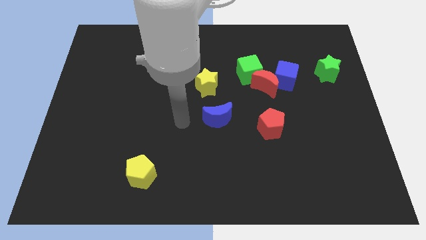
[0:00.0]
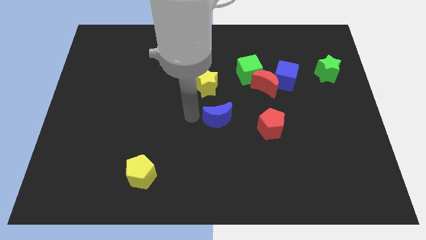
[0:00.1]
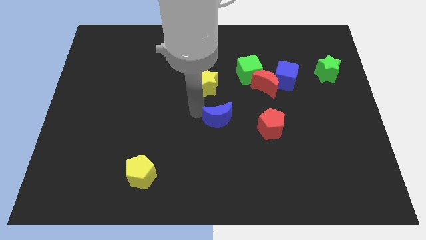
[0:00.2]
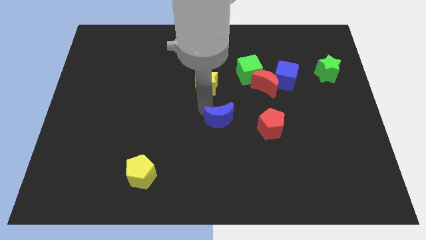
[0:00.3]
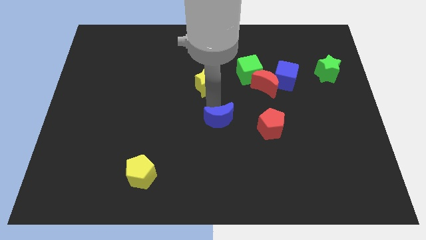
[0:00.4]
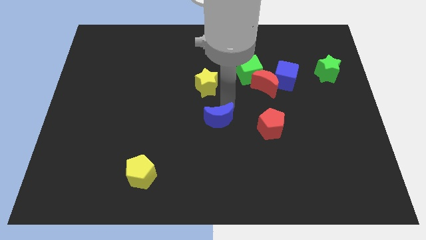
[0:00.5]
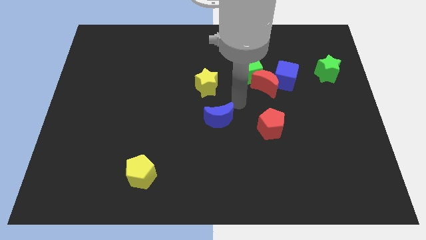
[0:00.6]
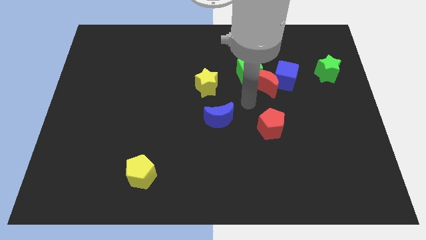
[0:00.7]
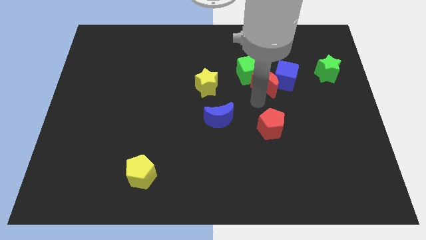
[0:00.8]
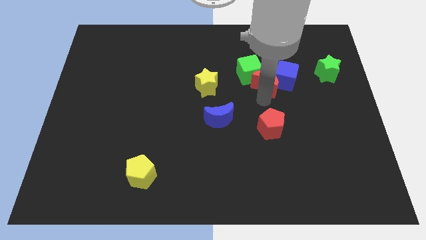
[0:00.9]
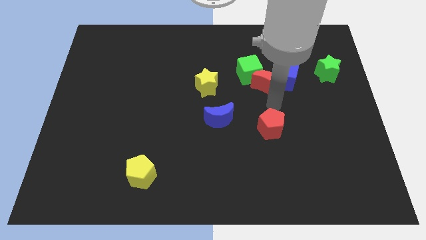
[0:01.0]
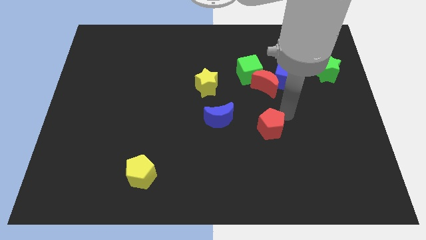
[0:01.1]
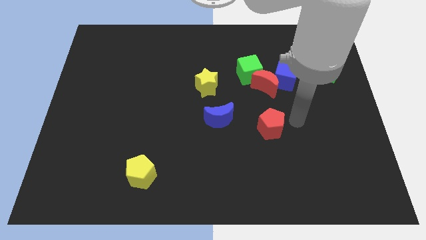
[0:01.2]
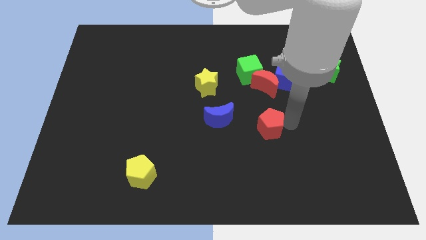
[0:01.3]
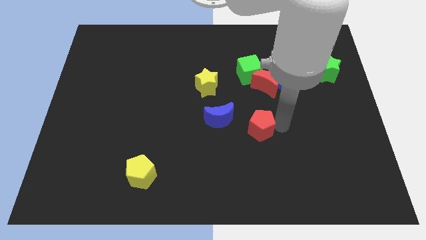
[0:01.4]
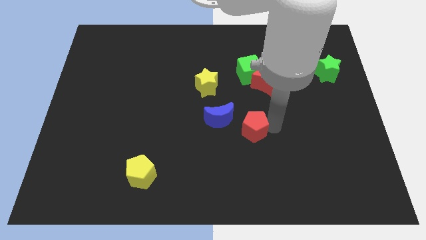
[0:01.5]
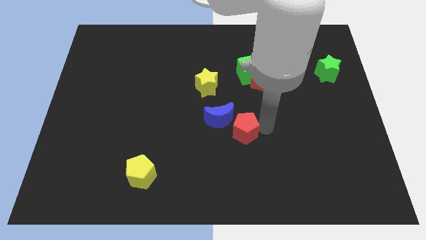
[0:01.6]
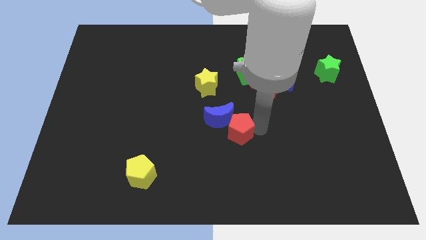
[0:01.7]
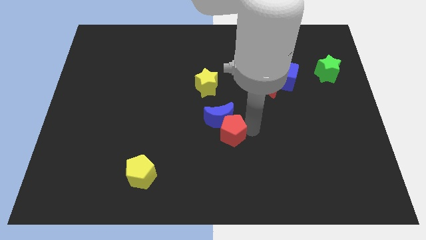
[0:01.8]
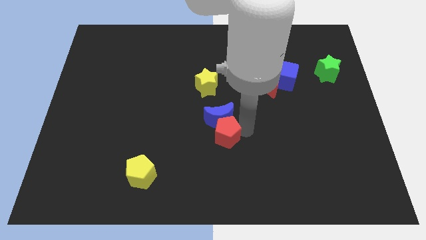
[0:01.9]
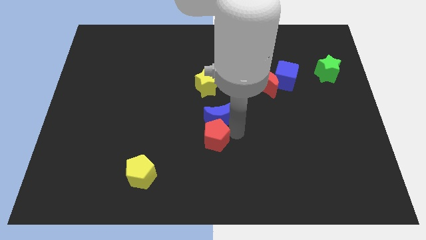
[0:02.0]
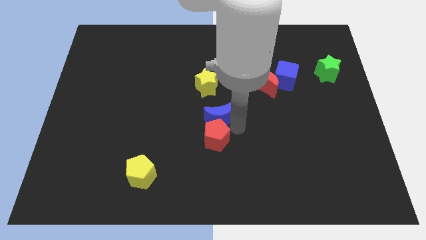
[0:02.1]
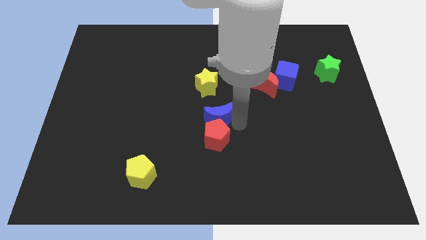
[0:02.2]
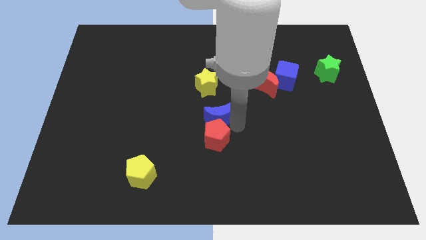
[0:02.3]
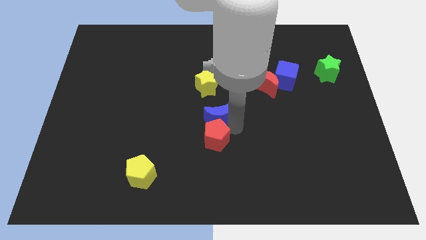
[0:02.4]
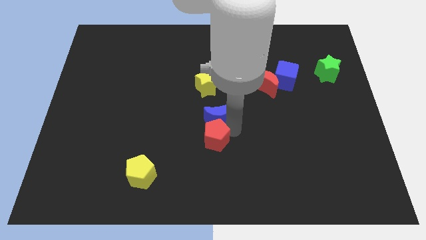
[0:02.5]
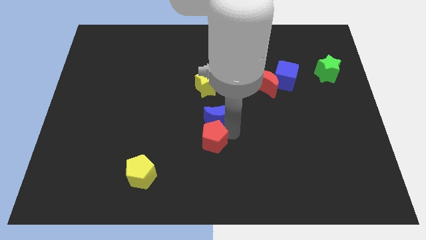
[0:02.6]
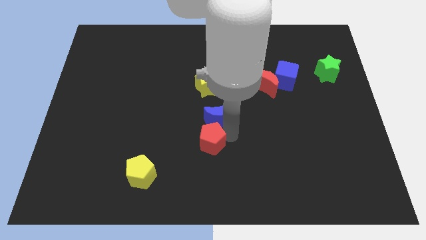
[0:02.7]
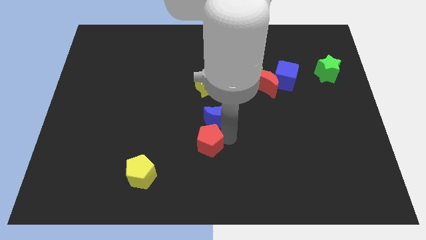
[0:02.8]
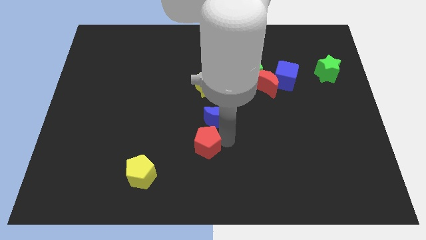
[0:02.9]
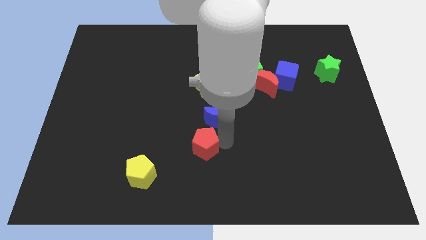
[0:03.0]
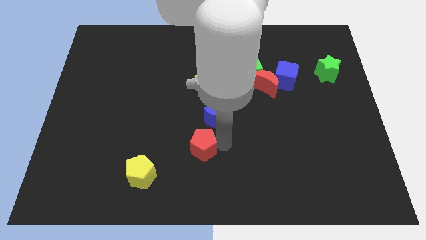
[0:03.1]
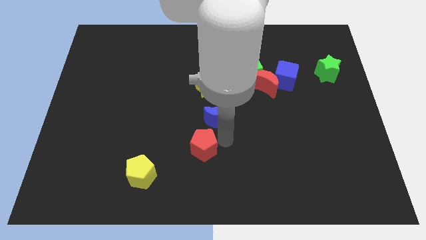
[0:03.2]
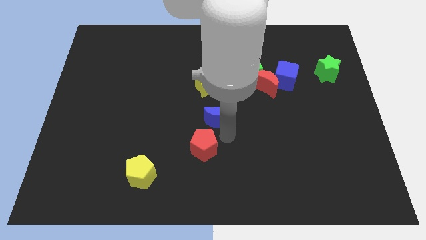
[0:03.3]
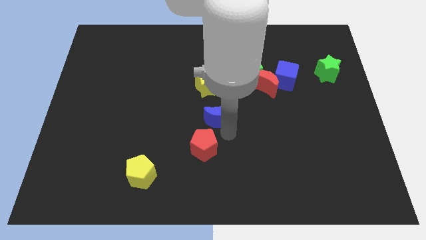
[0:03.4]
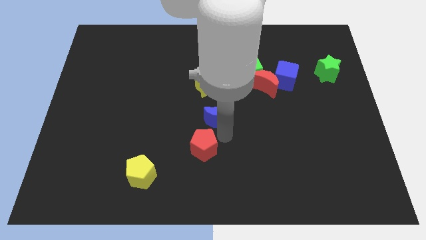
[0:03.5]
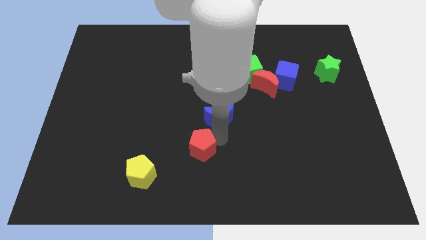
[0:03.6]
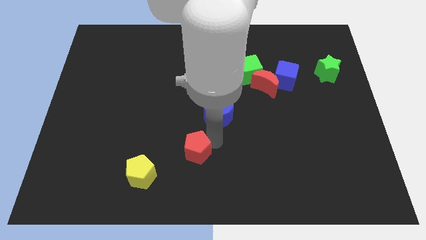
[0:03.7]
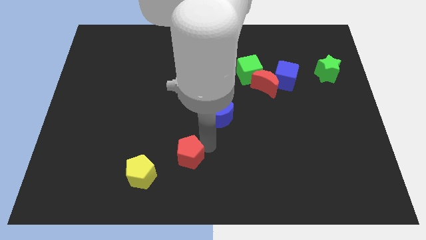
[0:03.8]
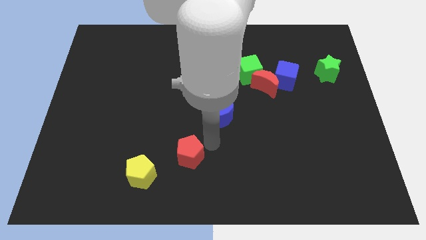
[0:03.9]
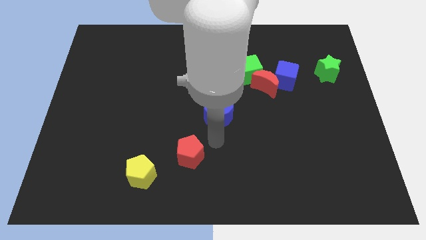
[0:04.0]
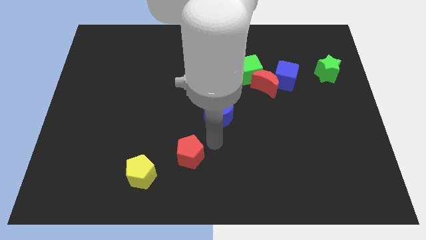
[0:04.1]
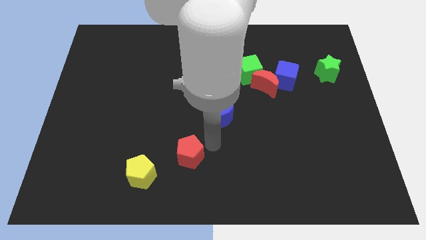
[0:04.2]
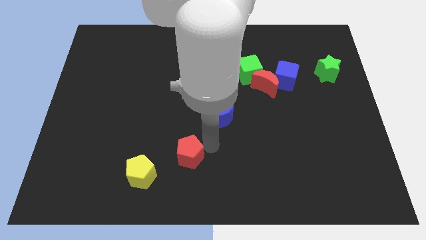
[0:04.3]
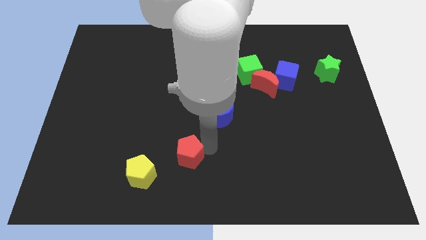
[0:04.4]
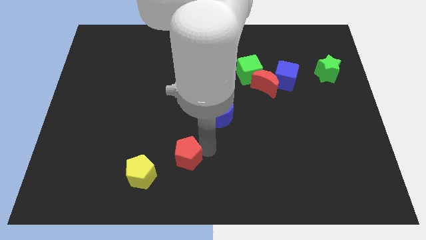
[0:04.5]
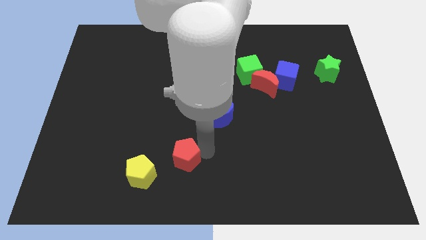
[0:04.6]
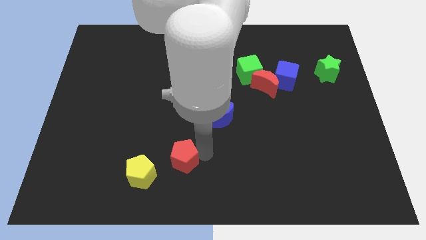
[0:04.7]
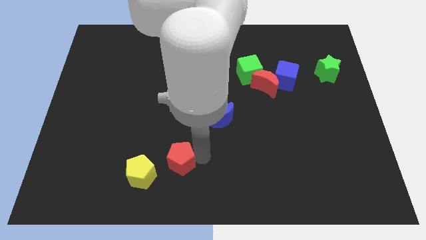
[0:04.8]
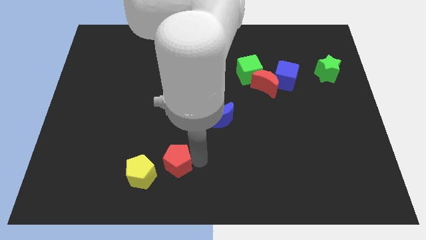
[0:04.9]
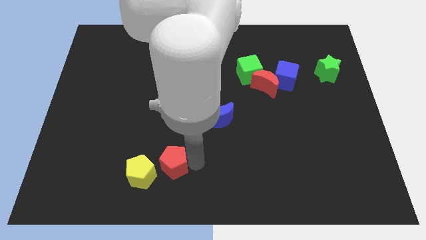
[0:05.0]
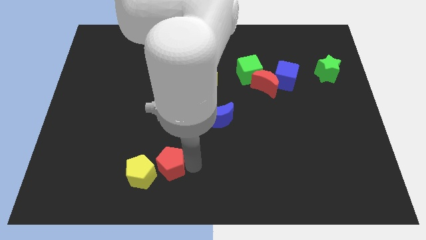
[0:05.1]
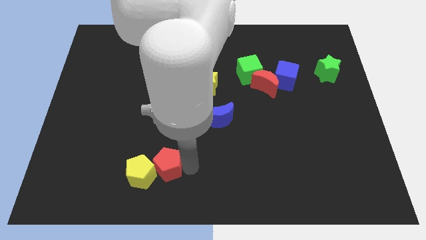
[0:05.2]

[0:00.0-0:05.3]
slide the red pentagon towards the yellow pentagon

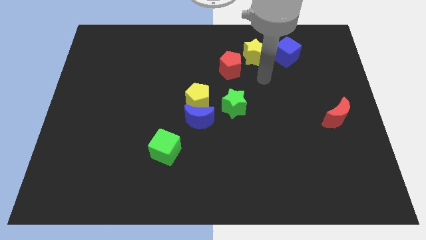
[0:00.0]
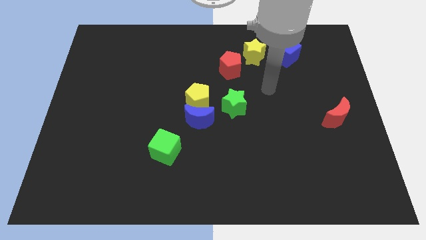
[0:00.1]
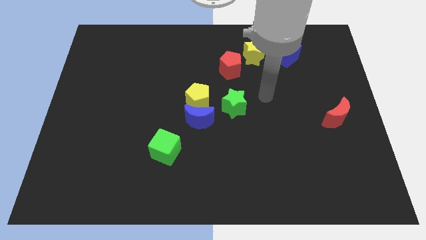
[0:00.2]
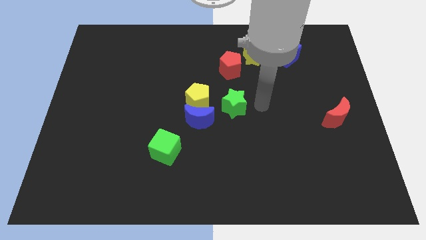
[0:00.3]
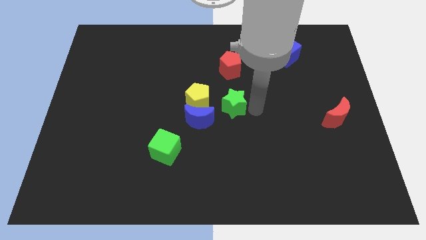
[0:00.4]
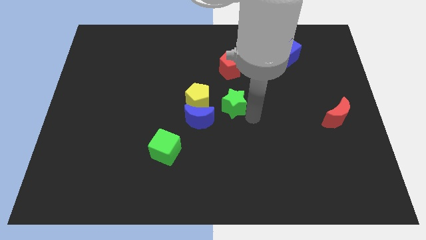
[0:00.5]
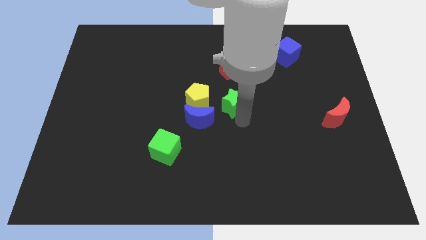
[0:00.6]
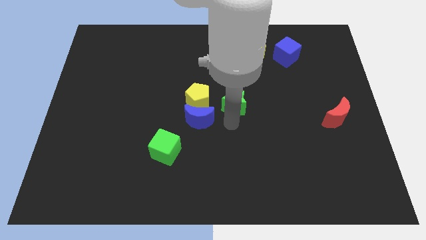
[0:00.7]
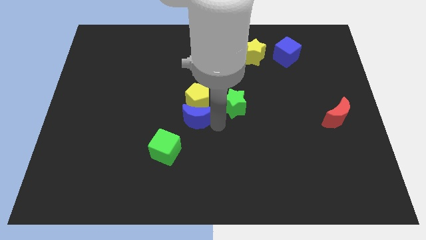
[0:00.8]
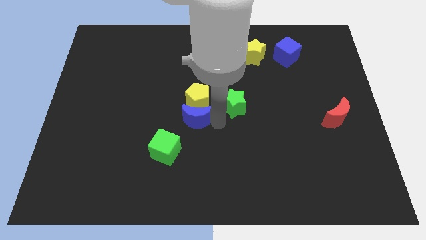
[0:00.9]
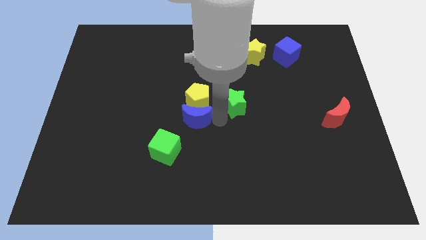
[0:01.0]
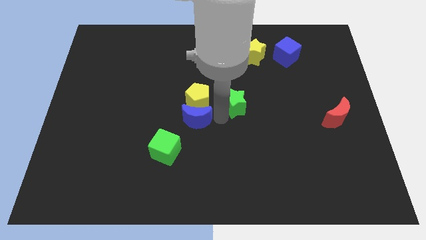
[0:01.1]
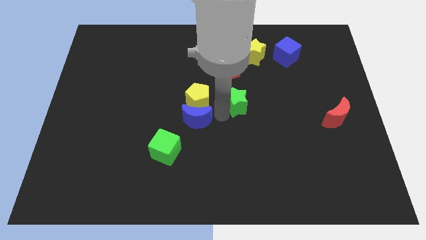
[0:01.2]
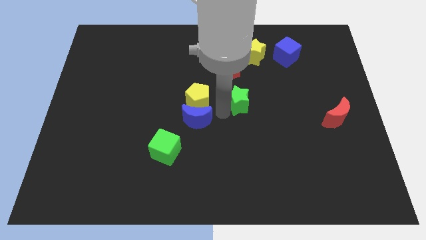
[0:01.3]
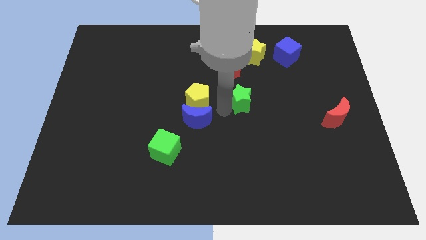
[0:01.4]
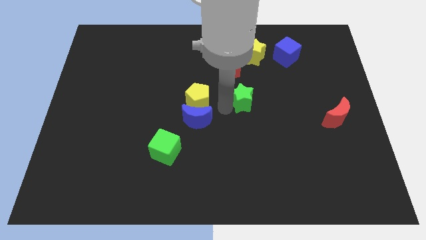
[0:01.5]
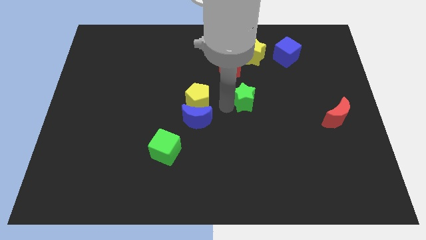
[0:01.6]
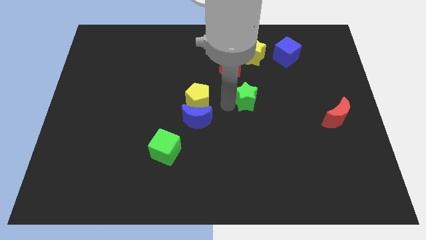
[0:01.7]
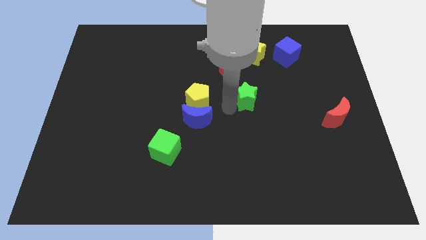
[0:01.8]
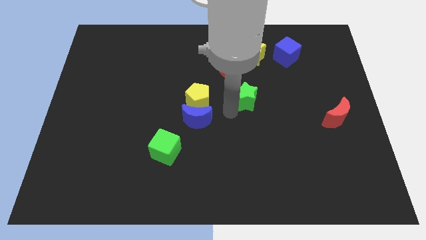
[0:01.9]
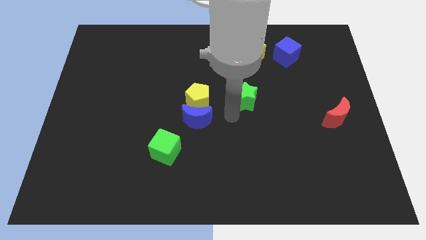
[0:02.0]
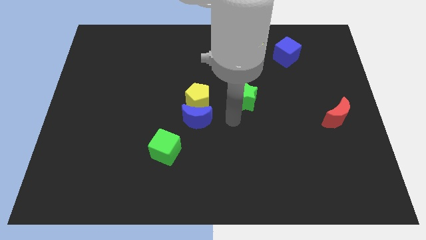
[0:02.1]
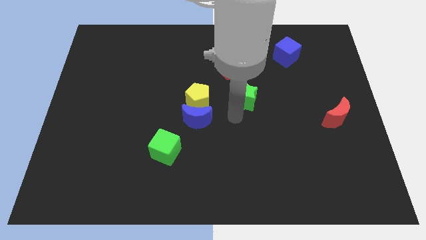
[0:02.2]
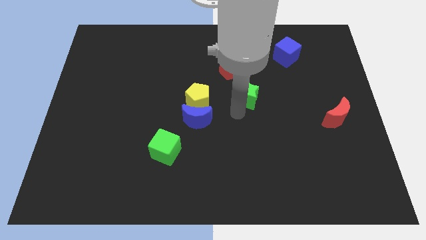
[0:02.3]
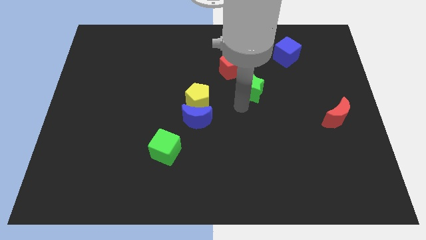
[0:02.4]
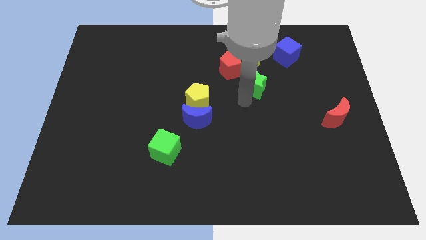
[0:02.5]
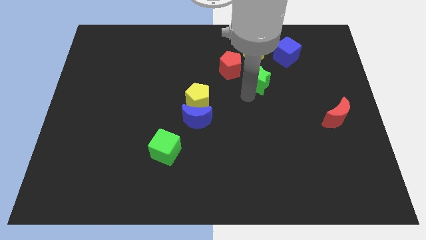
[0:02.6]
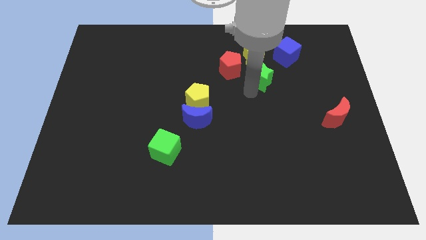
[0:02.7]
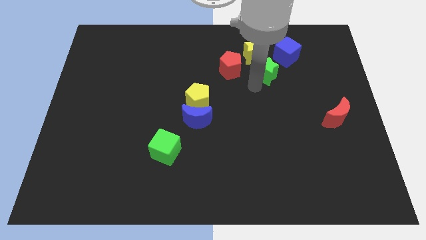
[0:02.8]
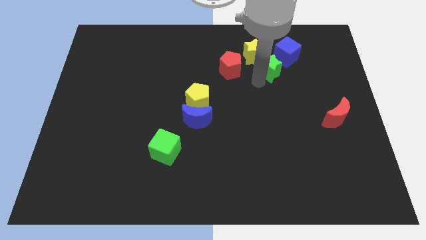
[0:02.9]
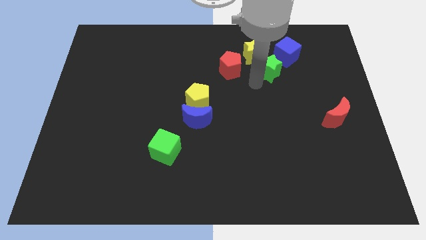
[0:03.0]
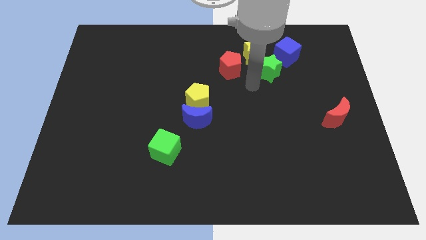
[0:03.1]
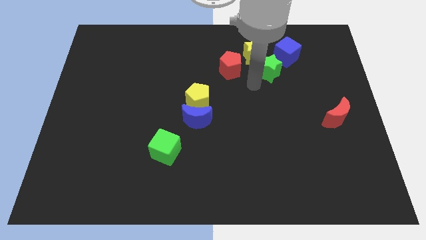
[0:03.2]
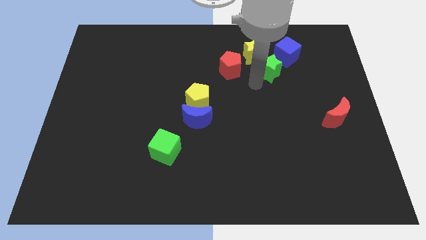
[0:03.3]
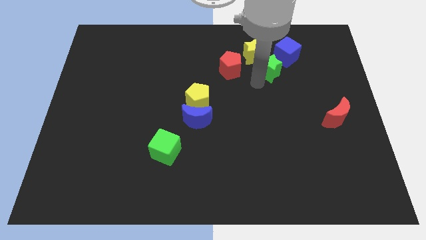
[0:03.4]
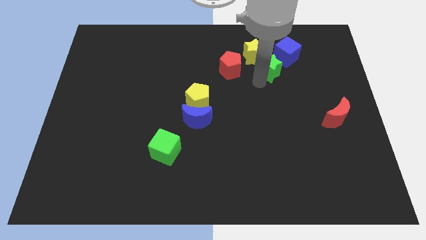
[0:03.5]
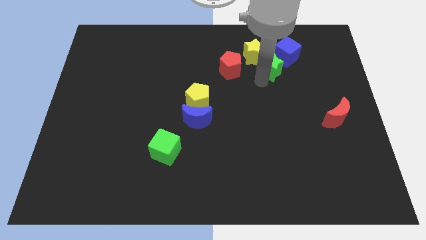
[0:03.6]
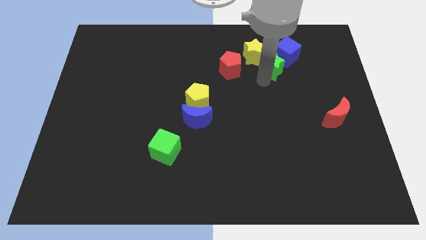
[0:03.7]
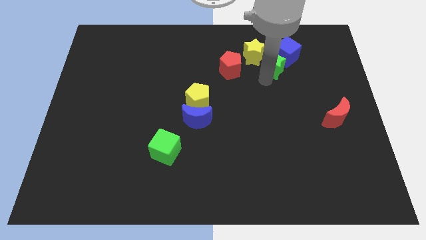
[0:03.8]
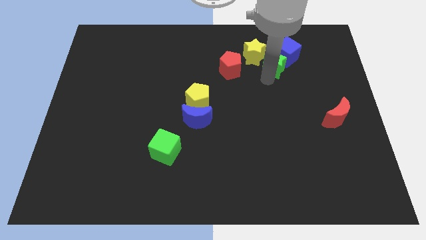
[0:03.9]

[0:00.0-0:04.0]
move the green star towards the blue cube
